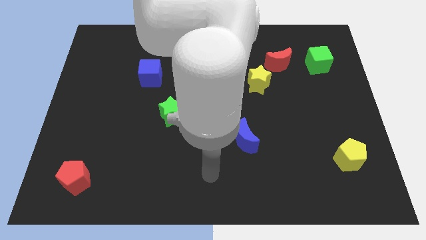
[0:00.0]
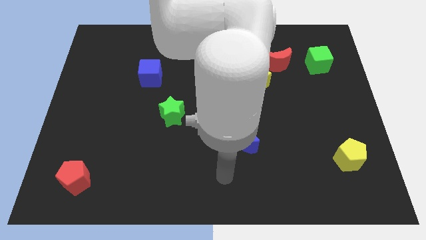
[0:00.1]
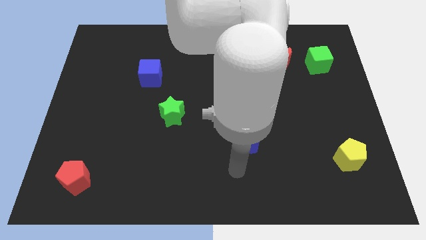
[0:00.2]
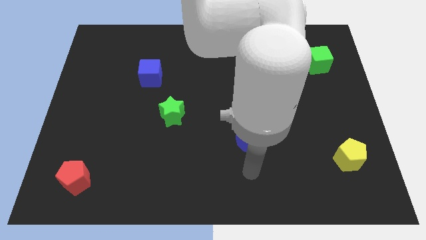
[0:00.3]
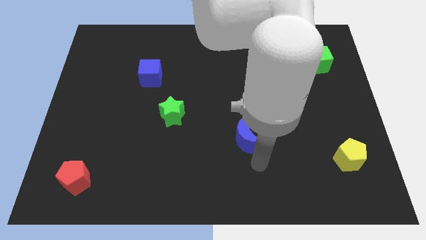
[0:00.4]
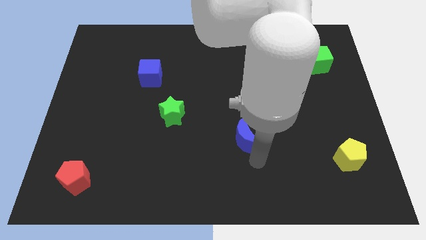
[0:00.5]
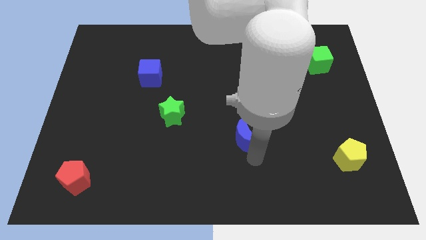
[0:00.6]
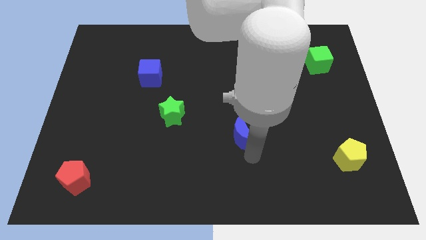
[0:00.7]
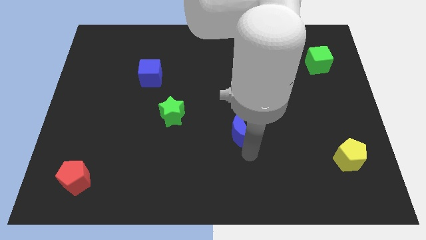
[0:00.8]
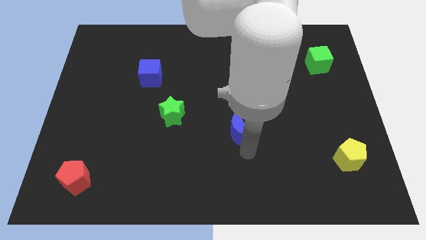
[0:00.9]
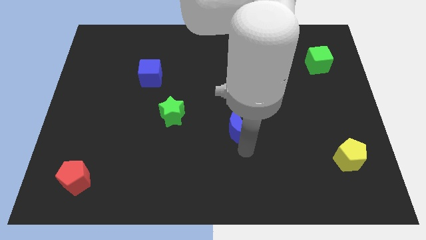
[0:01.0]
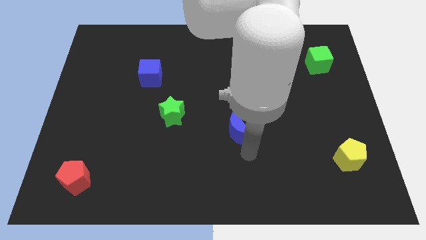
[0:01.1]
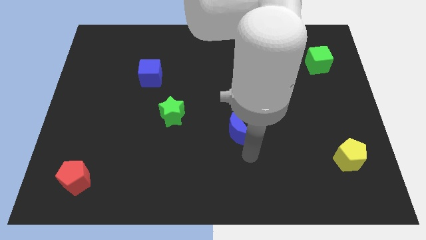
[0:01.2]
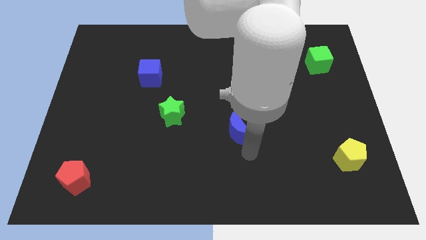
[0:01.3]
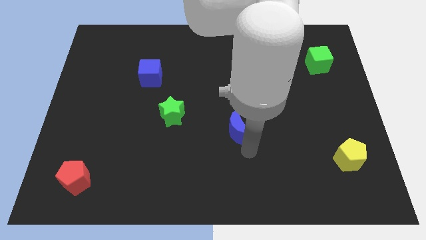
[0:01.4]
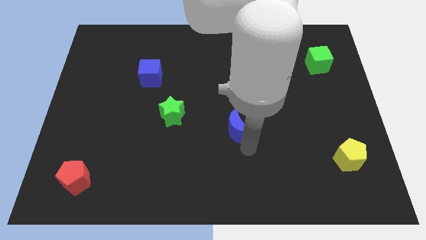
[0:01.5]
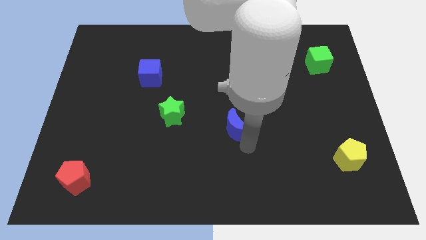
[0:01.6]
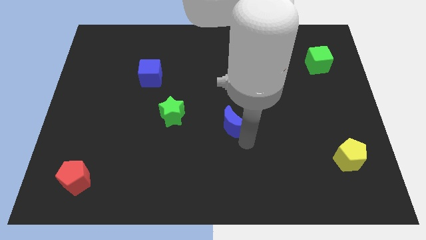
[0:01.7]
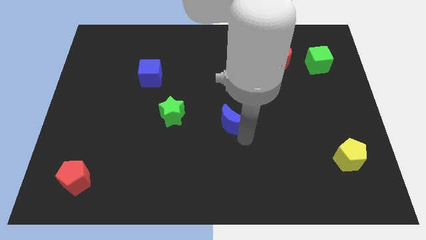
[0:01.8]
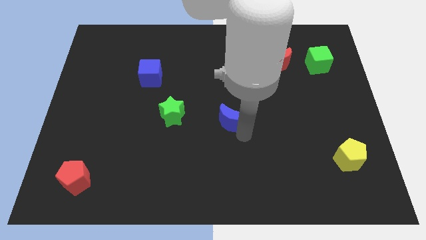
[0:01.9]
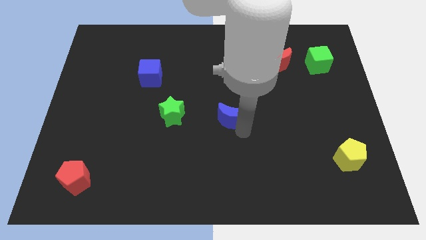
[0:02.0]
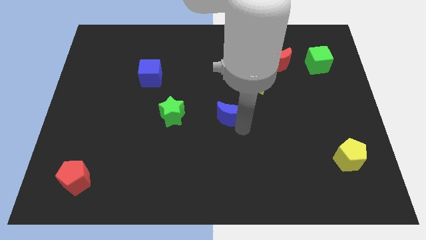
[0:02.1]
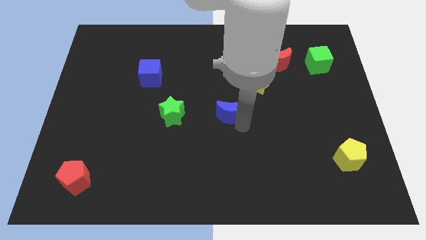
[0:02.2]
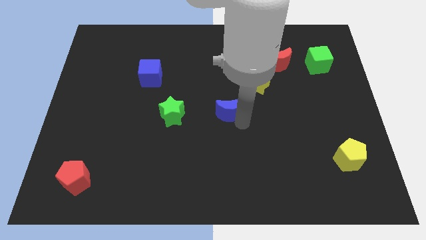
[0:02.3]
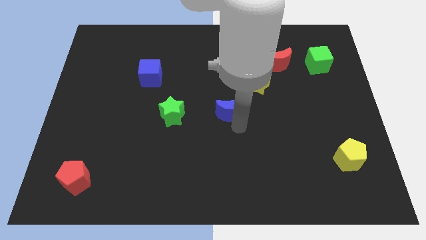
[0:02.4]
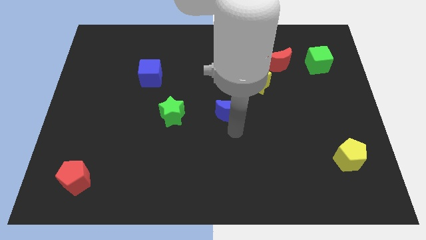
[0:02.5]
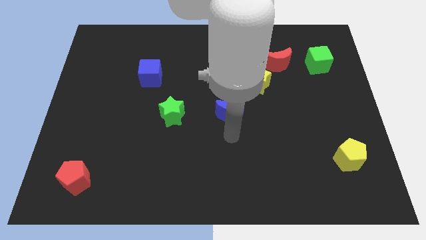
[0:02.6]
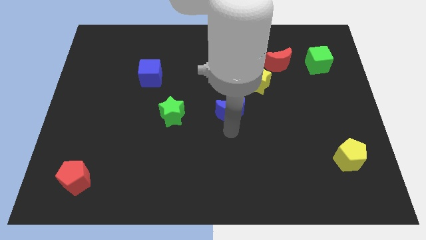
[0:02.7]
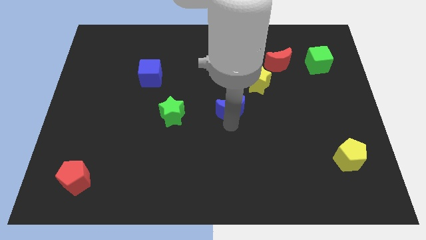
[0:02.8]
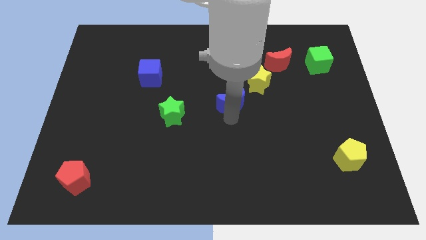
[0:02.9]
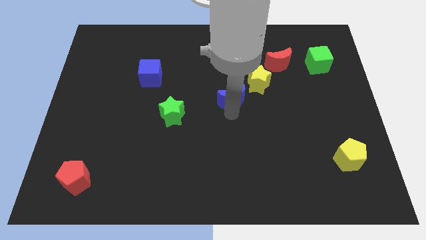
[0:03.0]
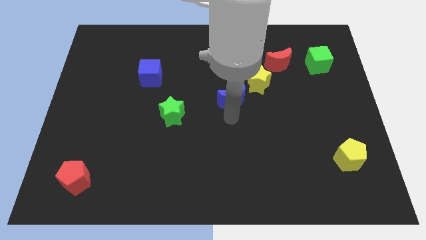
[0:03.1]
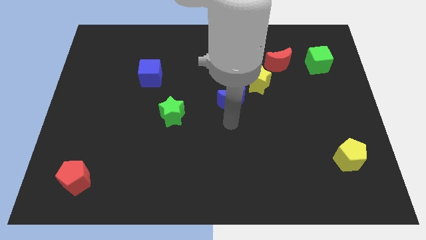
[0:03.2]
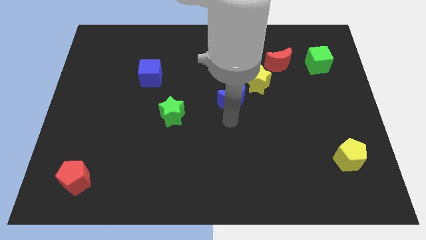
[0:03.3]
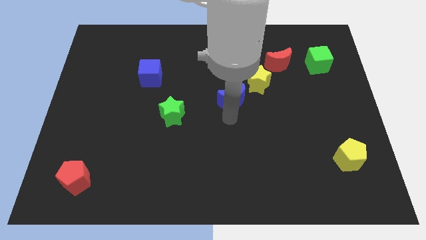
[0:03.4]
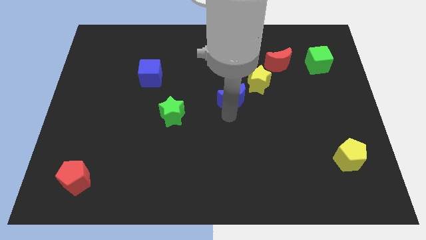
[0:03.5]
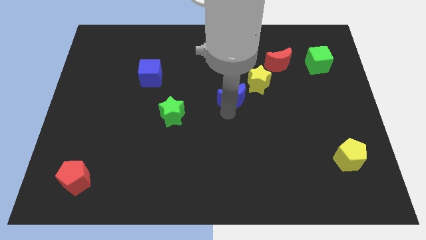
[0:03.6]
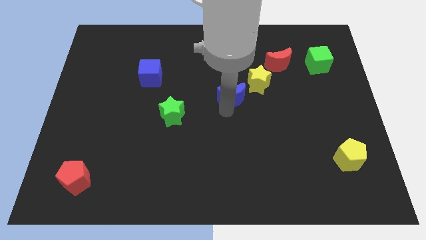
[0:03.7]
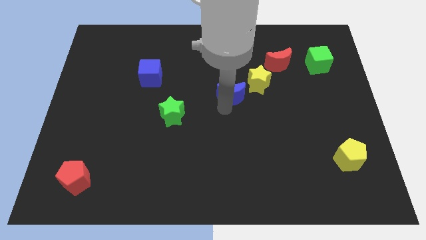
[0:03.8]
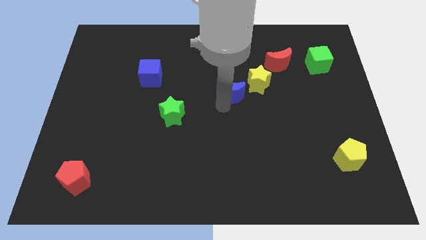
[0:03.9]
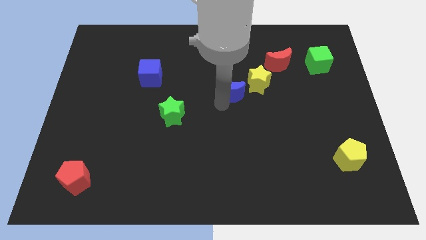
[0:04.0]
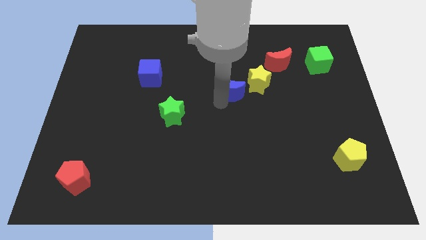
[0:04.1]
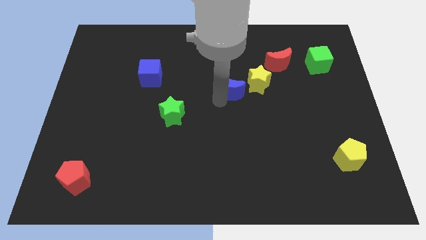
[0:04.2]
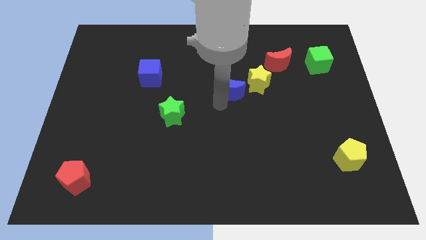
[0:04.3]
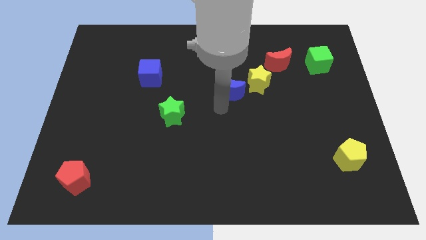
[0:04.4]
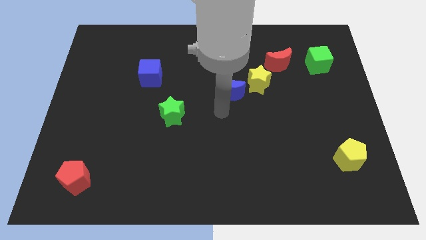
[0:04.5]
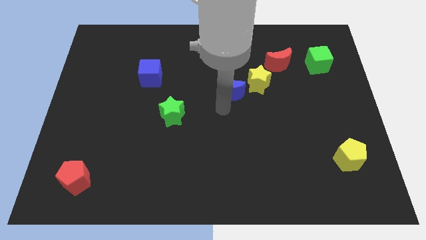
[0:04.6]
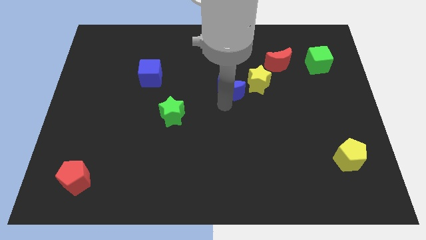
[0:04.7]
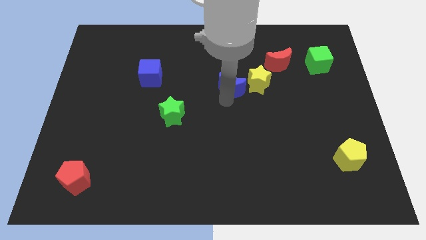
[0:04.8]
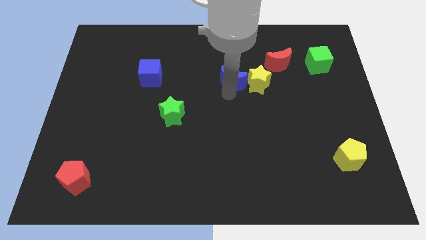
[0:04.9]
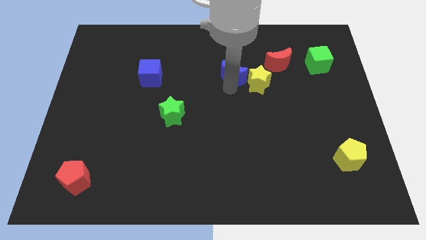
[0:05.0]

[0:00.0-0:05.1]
put the blue moon just left of the red moon

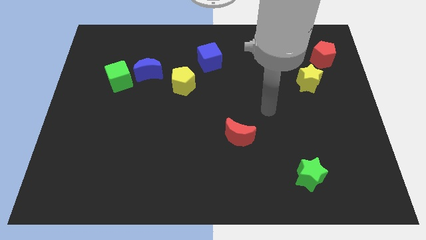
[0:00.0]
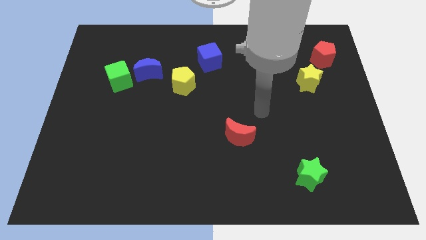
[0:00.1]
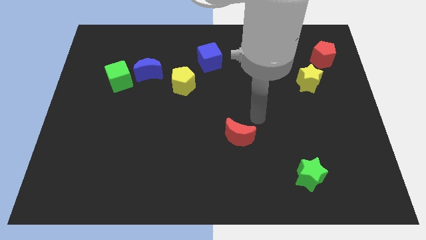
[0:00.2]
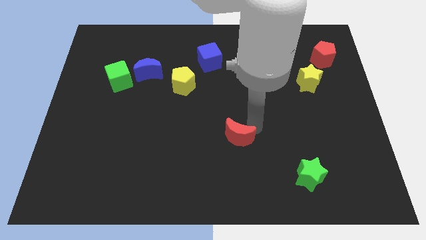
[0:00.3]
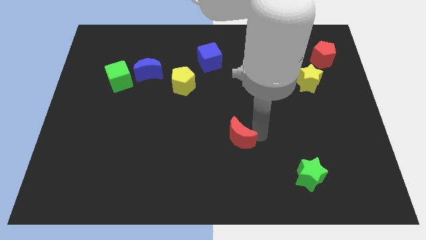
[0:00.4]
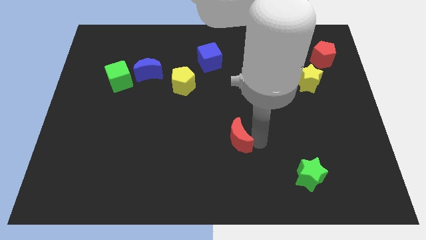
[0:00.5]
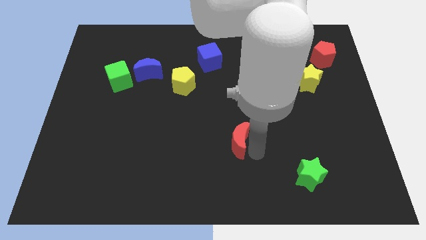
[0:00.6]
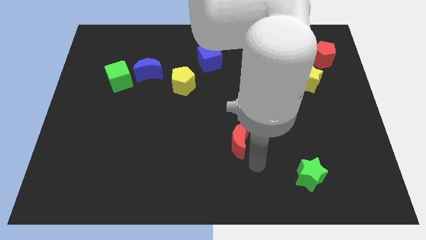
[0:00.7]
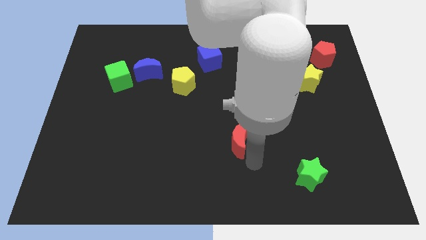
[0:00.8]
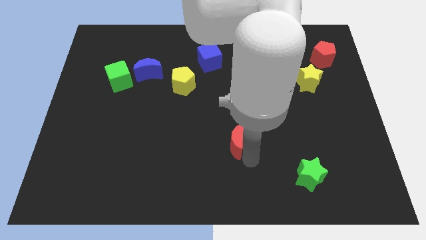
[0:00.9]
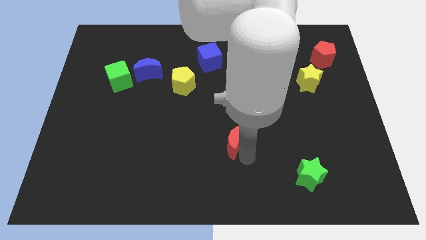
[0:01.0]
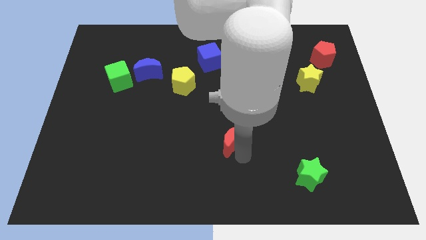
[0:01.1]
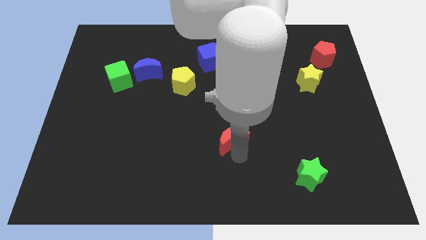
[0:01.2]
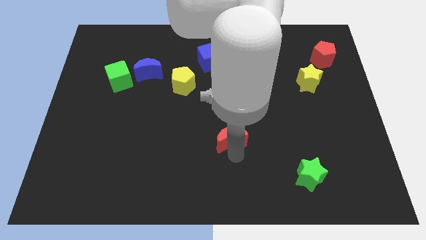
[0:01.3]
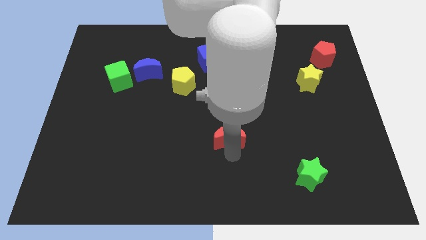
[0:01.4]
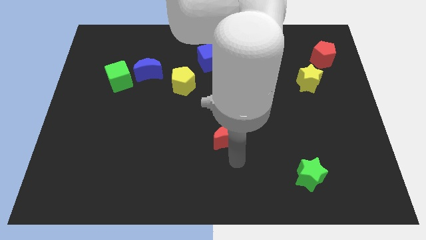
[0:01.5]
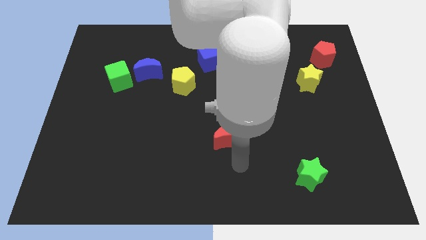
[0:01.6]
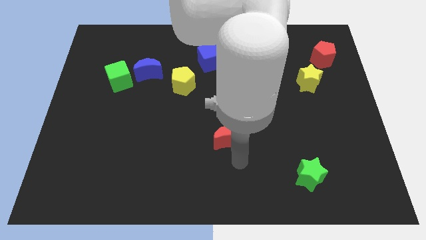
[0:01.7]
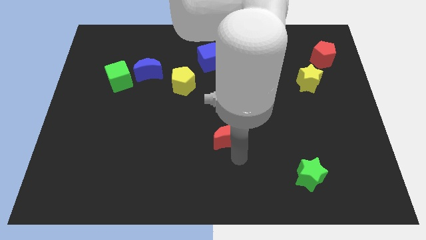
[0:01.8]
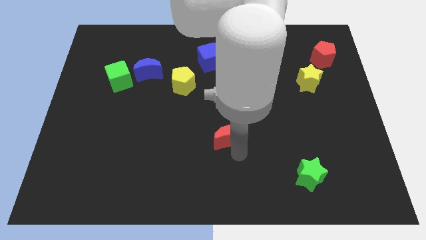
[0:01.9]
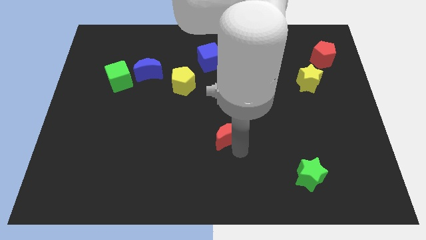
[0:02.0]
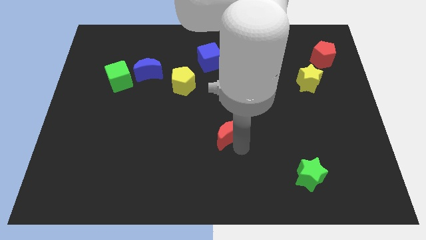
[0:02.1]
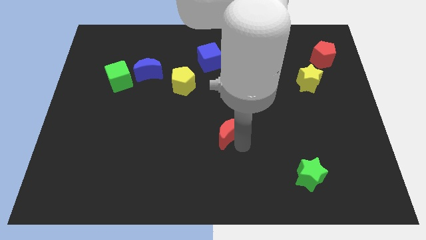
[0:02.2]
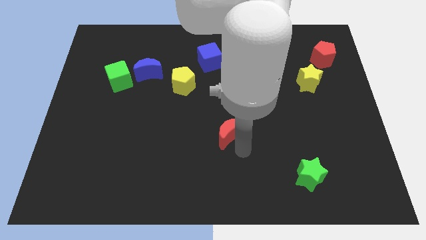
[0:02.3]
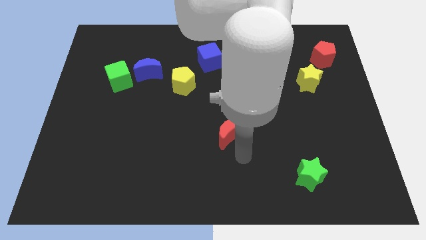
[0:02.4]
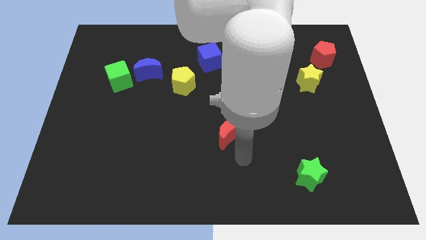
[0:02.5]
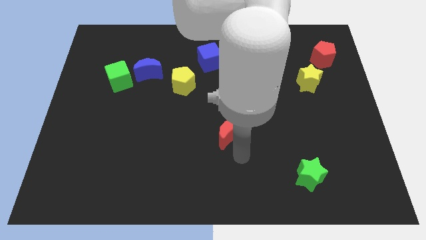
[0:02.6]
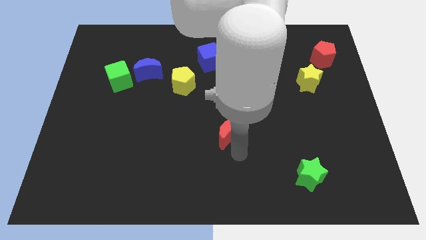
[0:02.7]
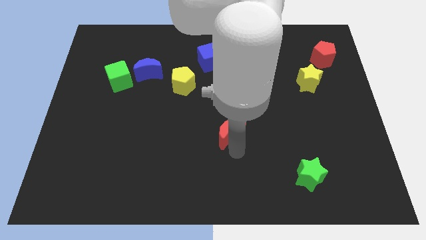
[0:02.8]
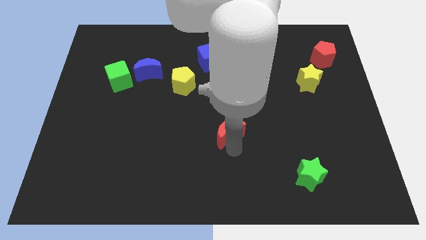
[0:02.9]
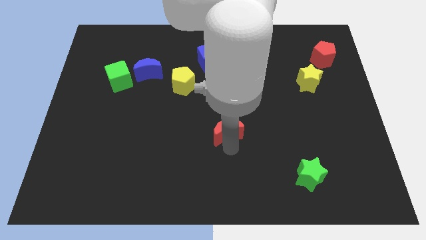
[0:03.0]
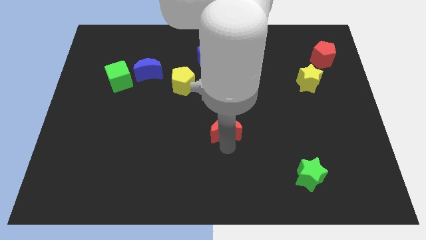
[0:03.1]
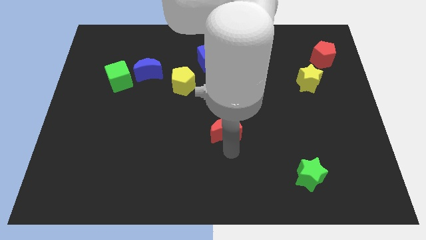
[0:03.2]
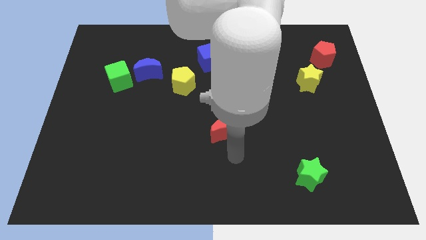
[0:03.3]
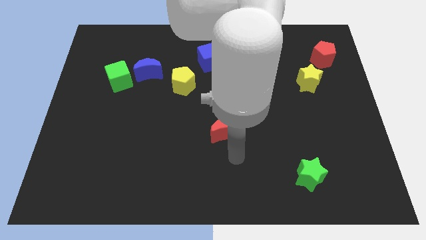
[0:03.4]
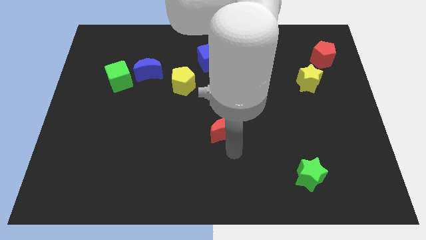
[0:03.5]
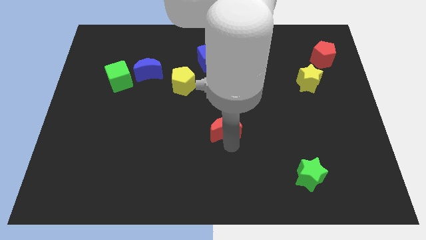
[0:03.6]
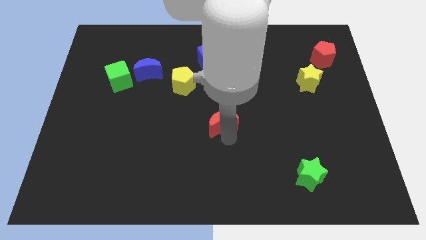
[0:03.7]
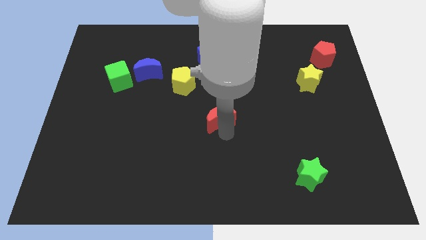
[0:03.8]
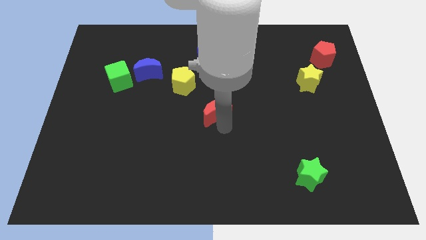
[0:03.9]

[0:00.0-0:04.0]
put the red moon diagonally down and to the right of the yellow pentagon
